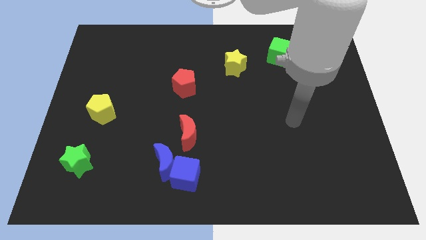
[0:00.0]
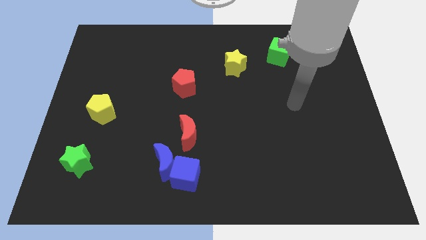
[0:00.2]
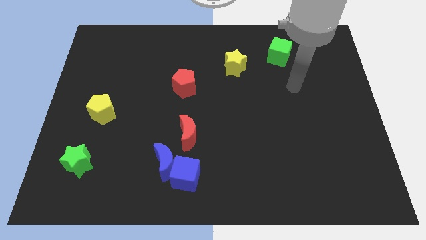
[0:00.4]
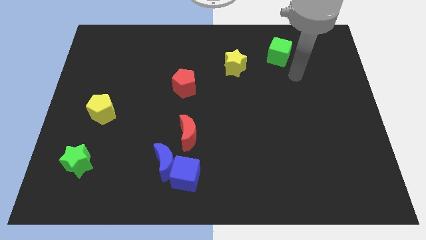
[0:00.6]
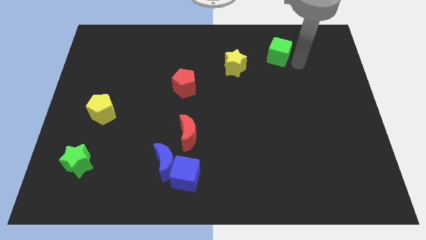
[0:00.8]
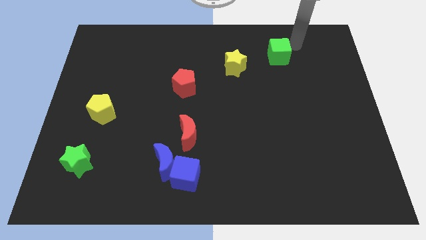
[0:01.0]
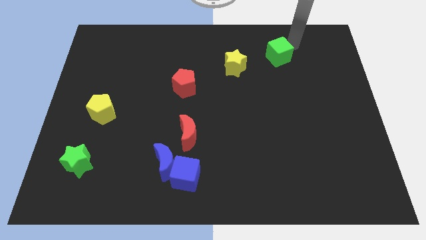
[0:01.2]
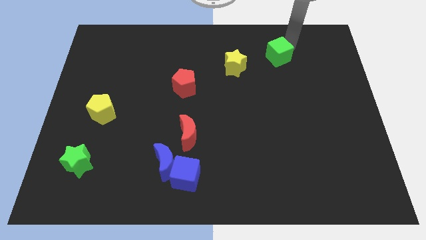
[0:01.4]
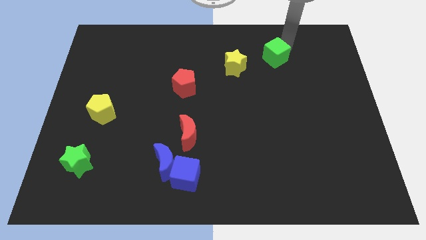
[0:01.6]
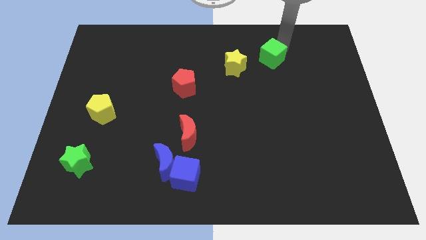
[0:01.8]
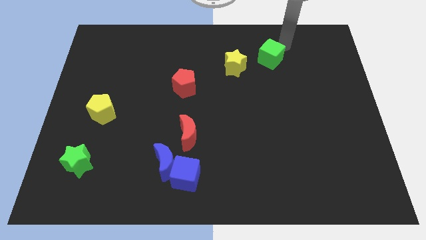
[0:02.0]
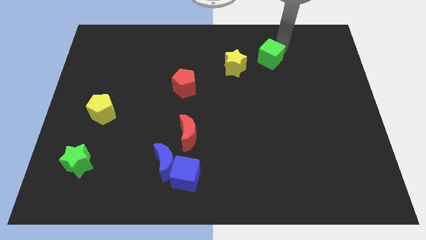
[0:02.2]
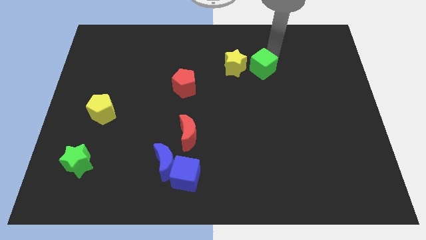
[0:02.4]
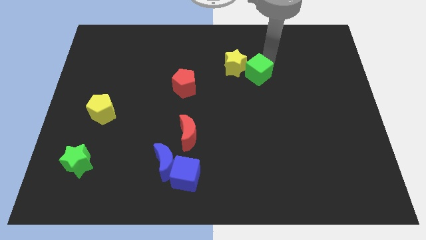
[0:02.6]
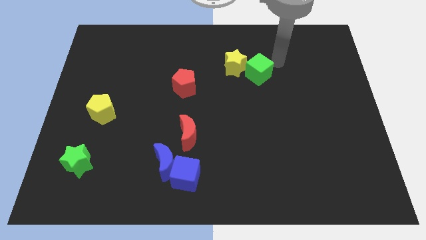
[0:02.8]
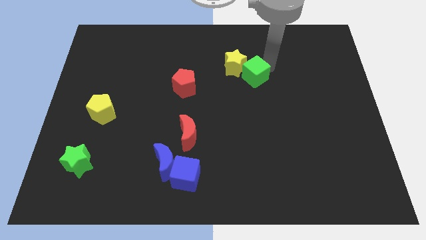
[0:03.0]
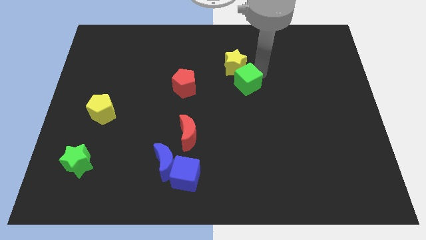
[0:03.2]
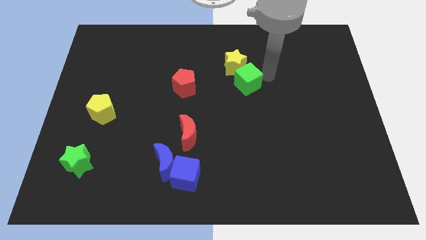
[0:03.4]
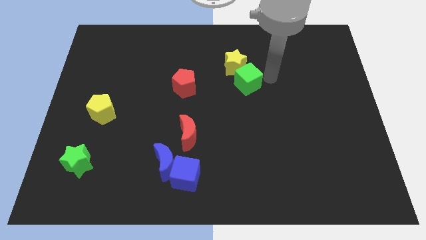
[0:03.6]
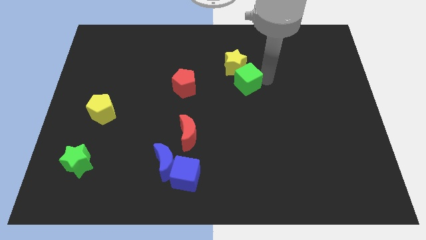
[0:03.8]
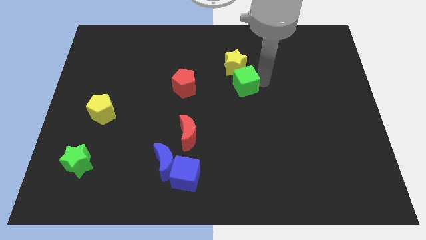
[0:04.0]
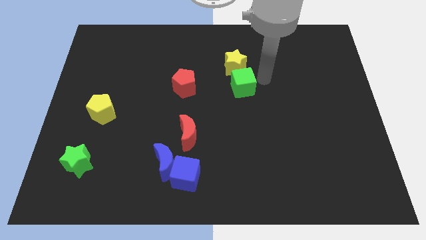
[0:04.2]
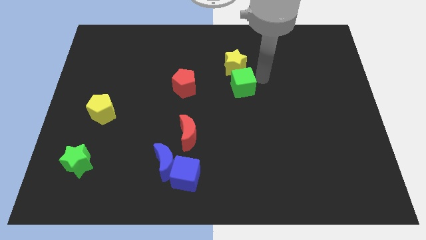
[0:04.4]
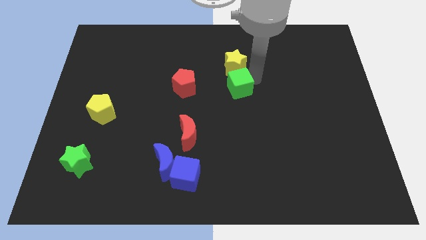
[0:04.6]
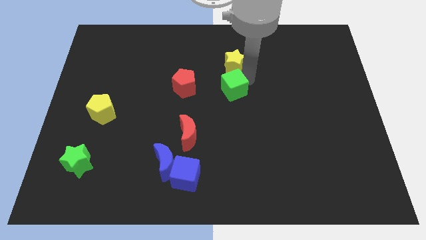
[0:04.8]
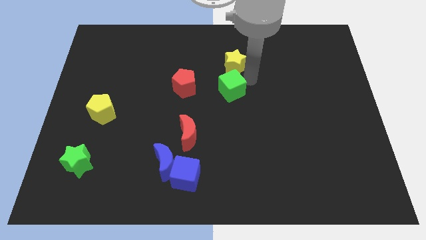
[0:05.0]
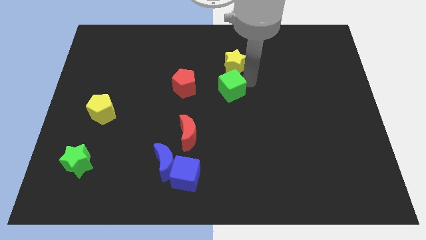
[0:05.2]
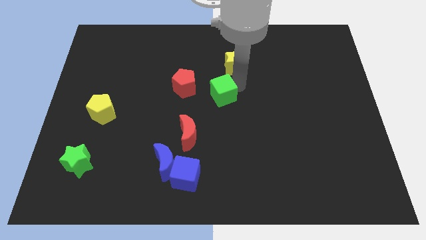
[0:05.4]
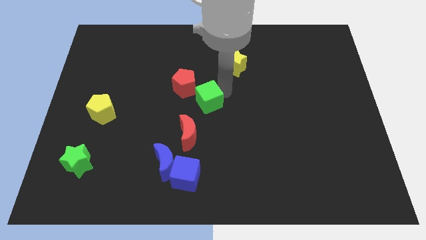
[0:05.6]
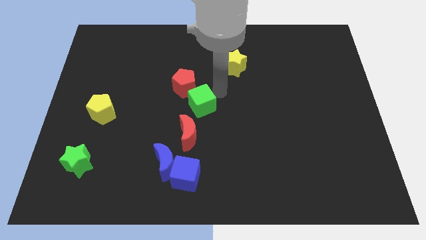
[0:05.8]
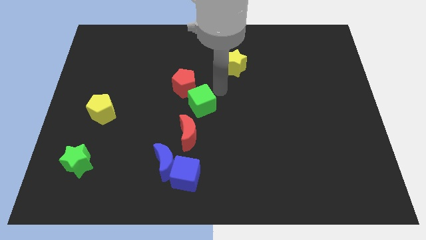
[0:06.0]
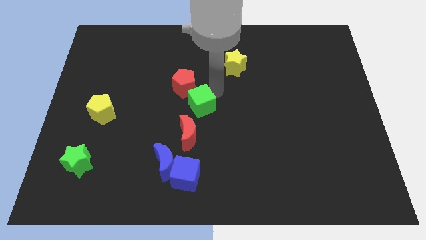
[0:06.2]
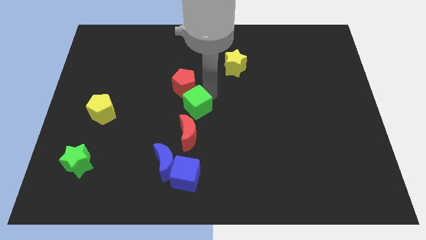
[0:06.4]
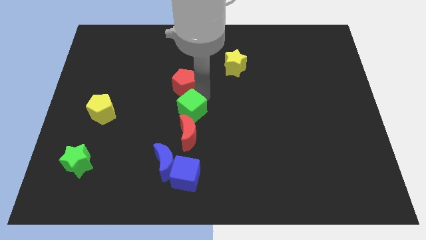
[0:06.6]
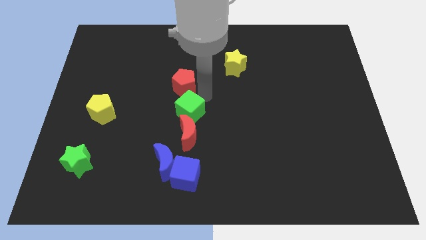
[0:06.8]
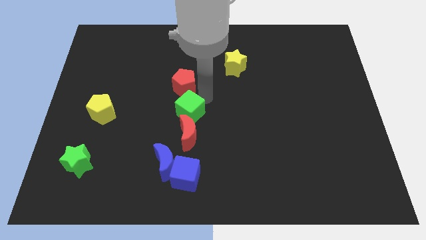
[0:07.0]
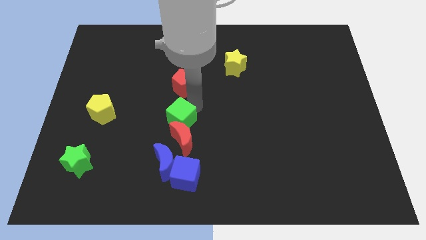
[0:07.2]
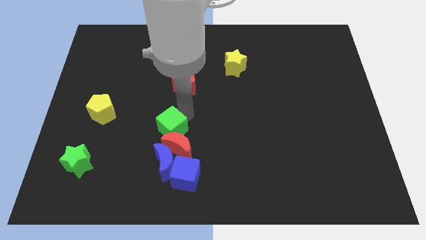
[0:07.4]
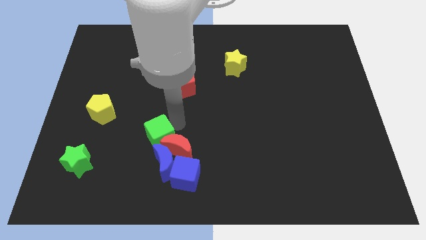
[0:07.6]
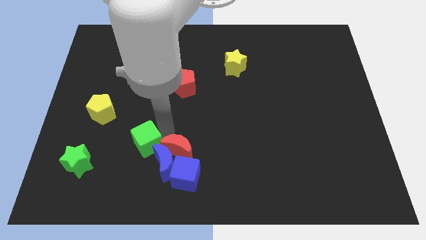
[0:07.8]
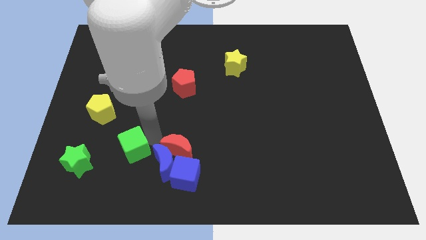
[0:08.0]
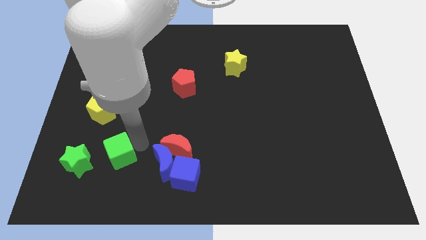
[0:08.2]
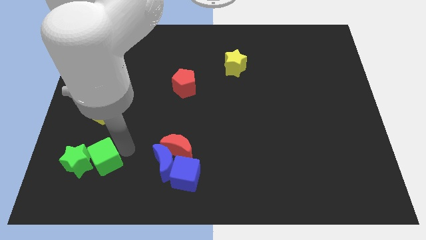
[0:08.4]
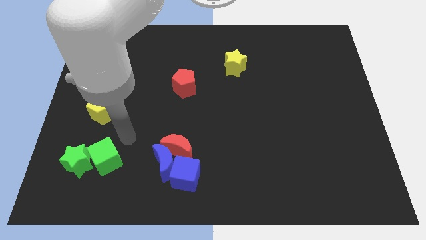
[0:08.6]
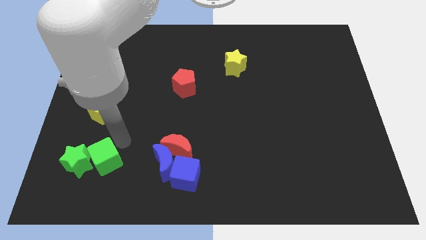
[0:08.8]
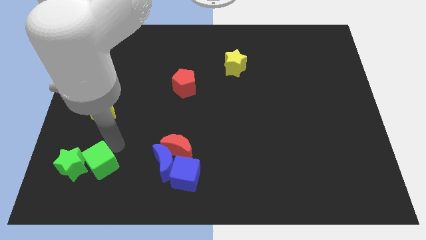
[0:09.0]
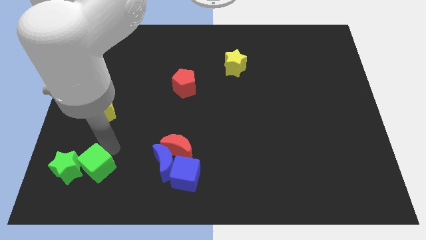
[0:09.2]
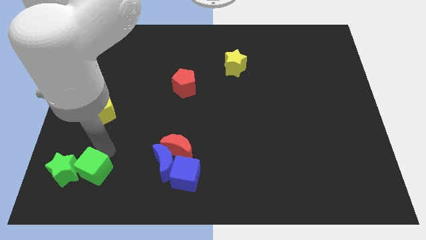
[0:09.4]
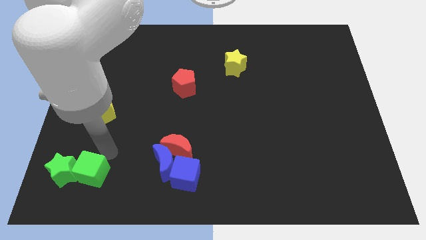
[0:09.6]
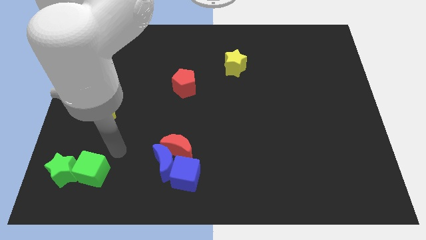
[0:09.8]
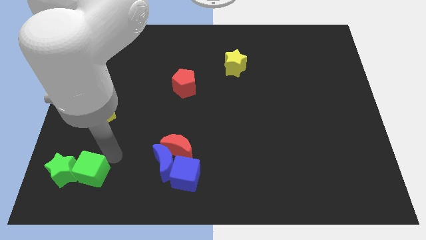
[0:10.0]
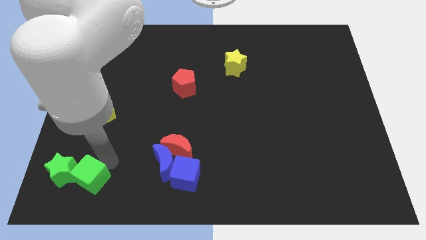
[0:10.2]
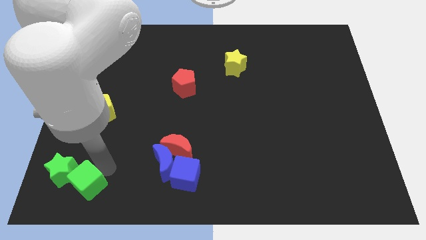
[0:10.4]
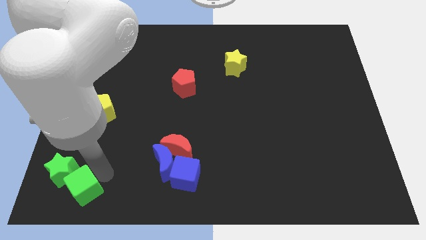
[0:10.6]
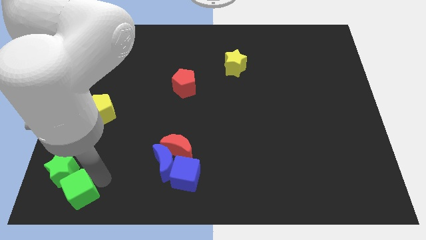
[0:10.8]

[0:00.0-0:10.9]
move the green cube to the bottom left of the board

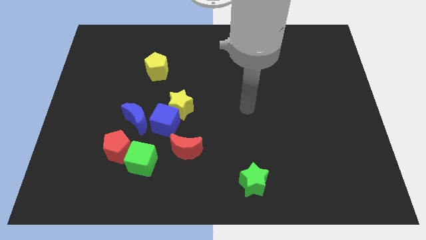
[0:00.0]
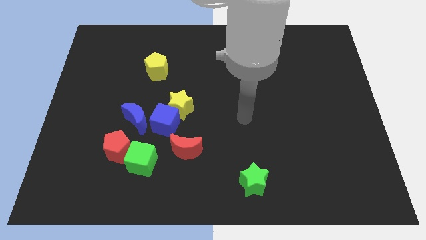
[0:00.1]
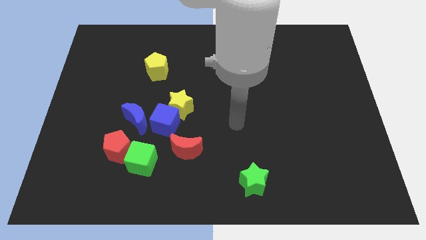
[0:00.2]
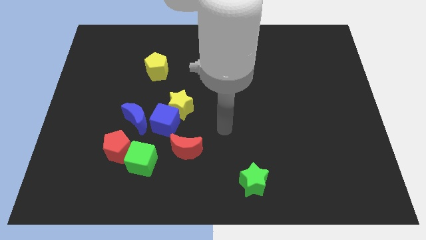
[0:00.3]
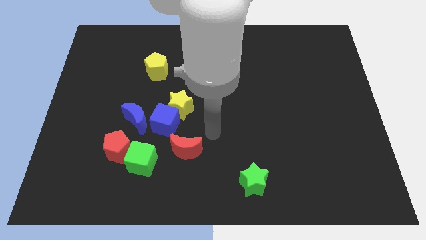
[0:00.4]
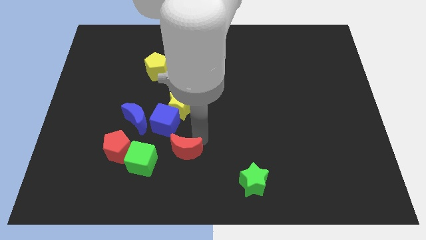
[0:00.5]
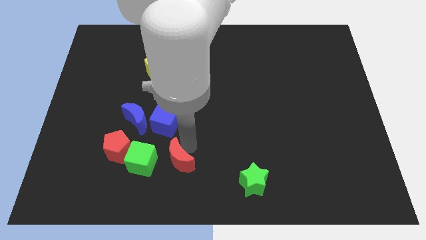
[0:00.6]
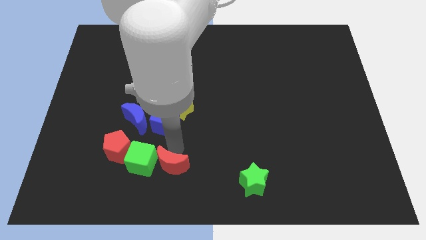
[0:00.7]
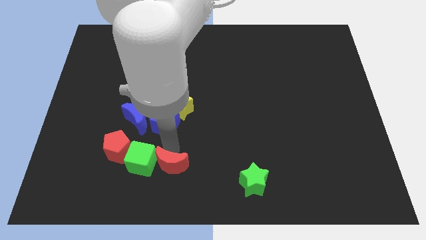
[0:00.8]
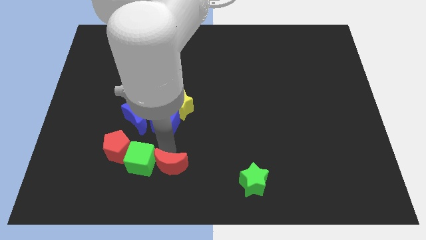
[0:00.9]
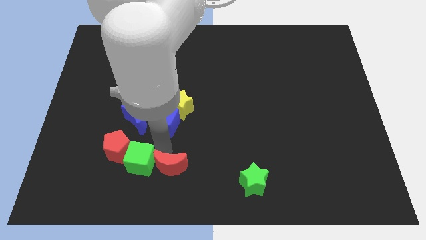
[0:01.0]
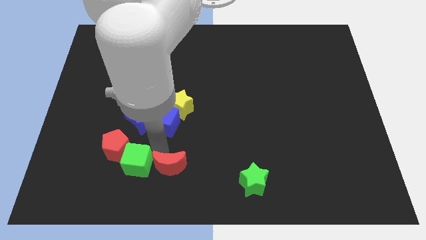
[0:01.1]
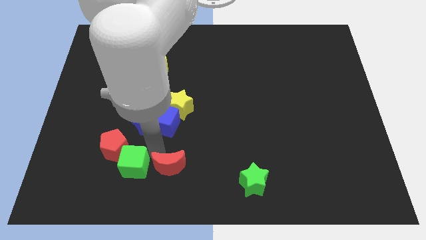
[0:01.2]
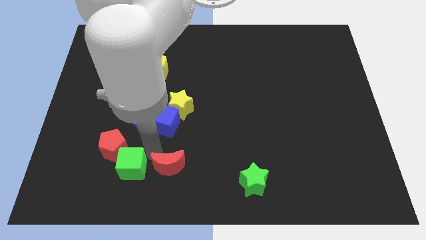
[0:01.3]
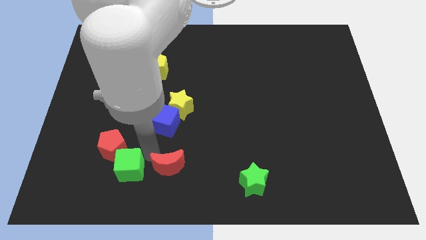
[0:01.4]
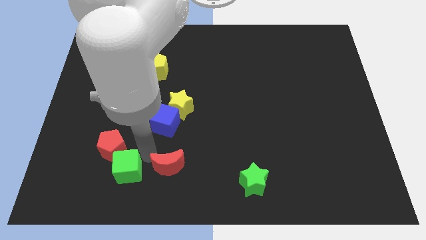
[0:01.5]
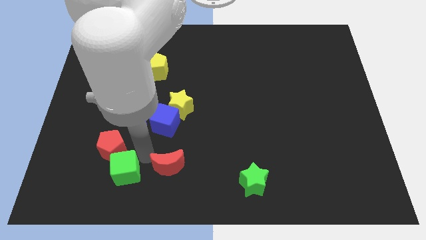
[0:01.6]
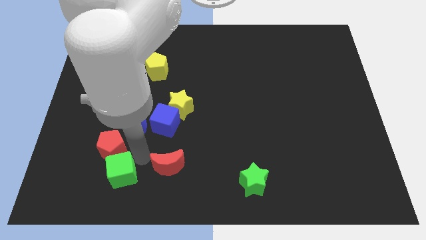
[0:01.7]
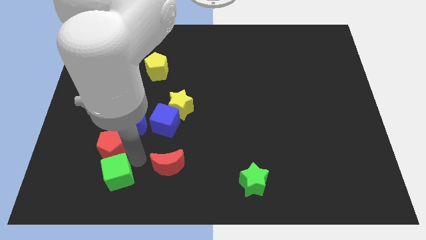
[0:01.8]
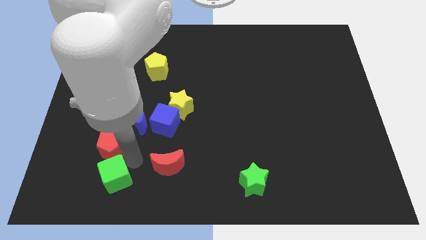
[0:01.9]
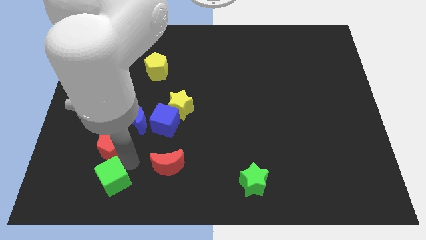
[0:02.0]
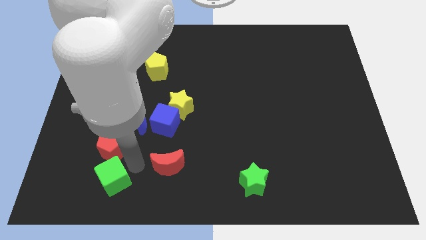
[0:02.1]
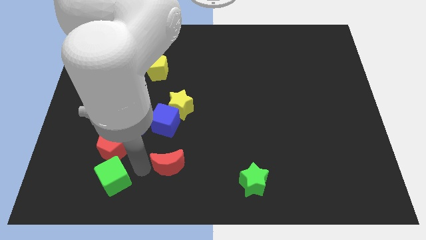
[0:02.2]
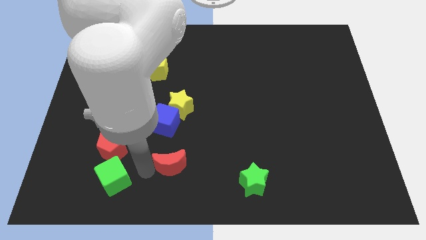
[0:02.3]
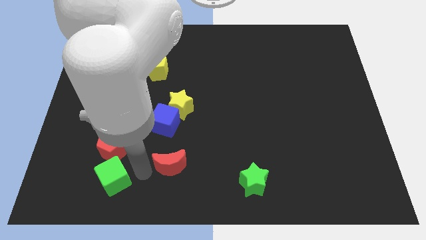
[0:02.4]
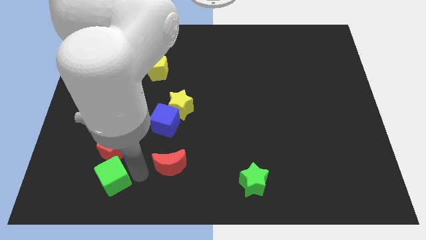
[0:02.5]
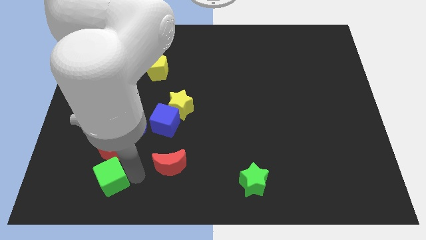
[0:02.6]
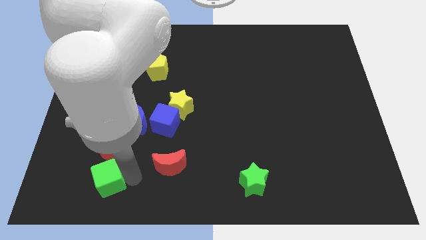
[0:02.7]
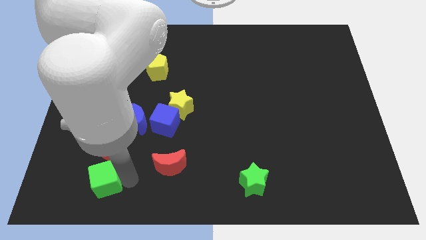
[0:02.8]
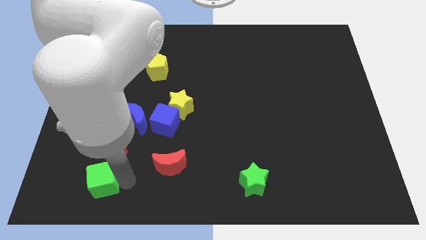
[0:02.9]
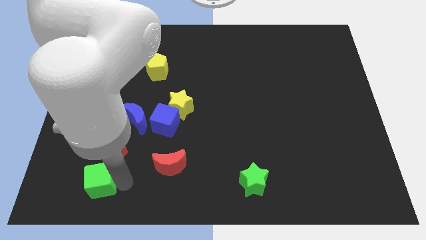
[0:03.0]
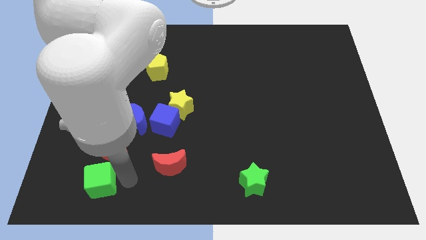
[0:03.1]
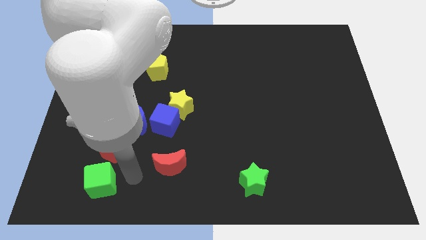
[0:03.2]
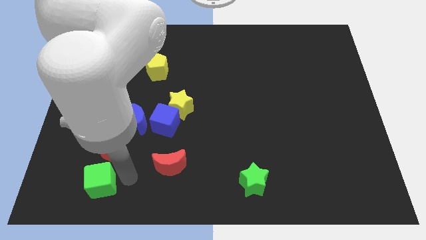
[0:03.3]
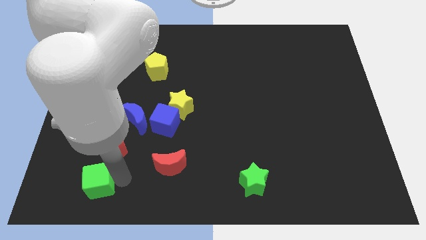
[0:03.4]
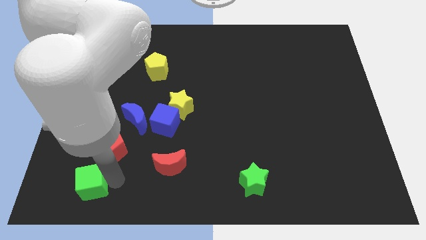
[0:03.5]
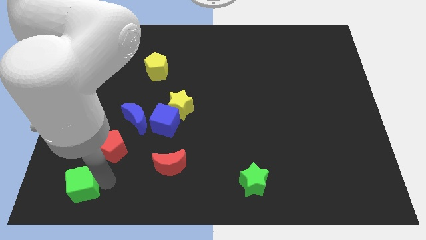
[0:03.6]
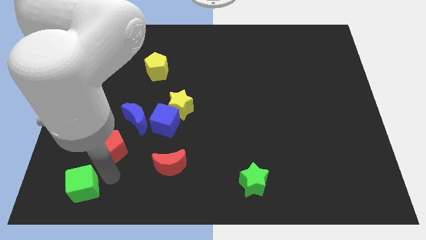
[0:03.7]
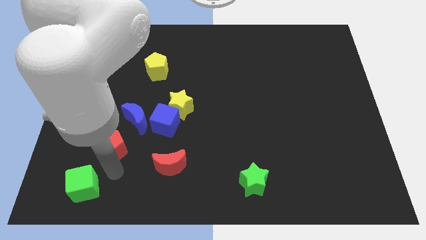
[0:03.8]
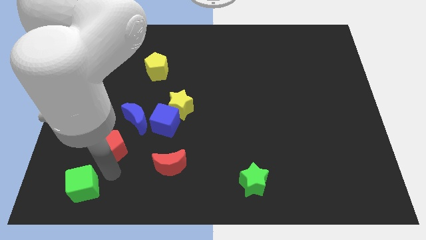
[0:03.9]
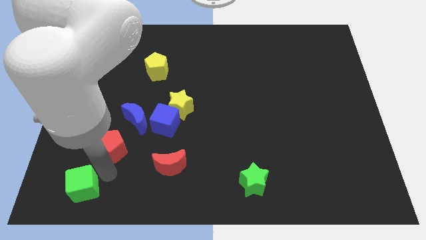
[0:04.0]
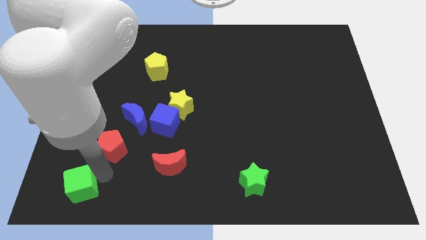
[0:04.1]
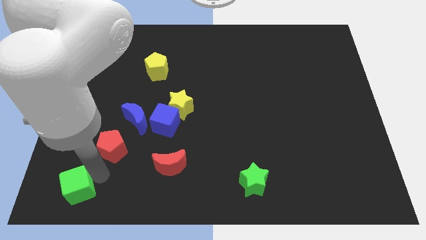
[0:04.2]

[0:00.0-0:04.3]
push the green cube to the bottom left of the board
